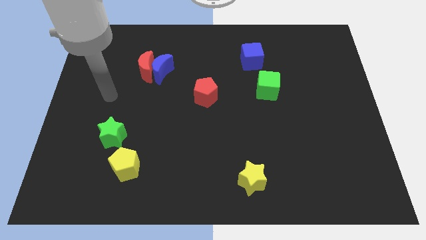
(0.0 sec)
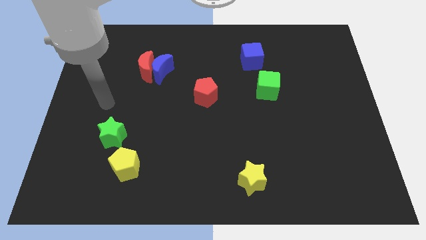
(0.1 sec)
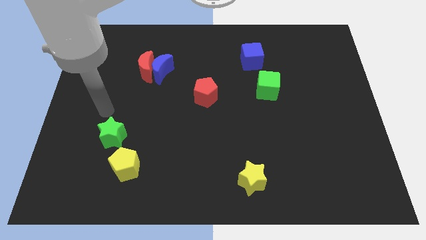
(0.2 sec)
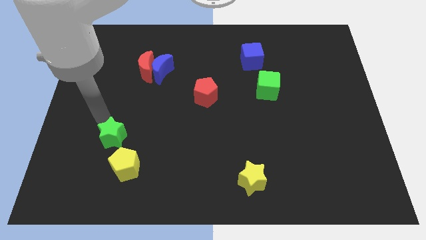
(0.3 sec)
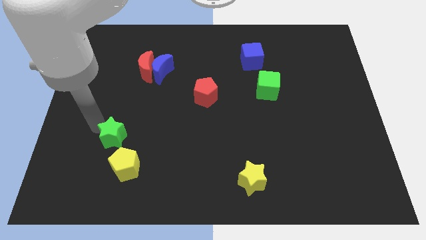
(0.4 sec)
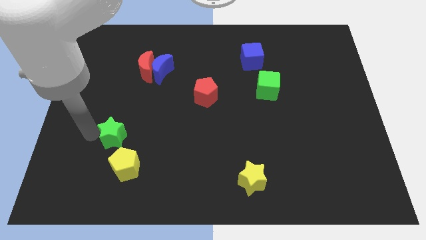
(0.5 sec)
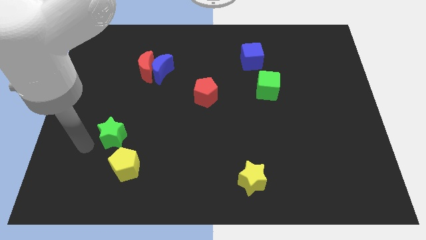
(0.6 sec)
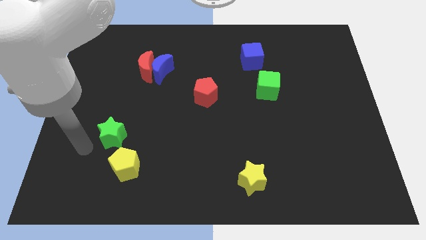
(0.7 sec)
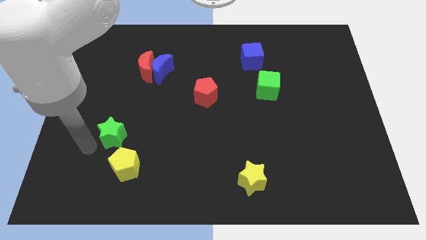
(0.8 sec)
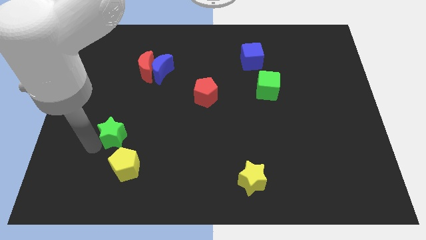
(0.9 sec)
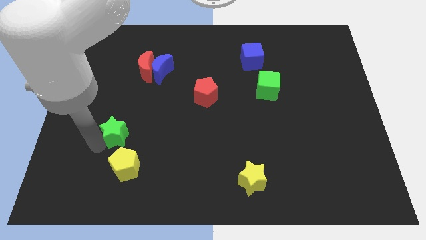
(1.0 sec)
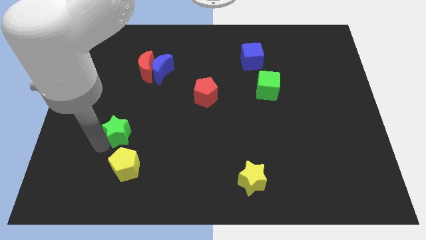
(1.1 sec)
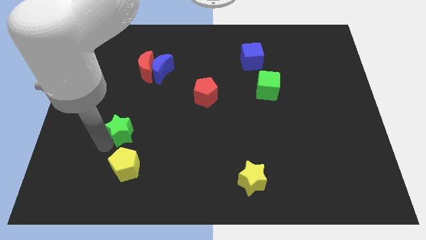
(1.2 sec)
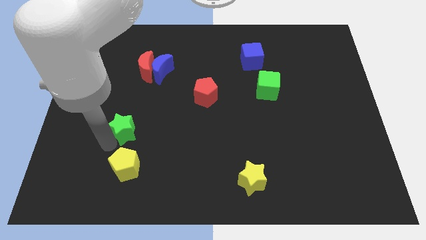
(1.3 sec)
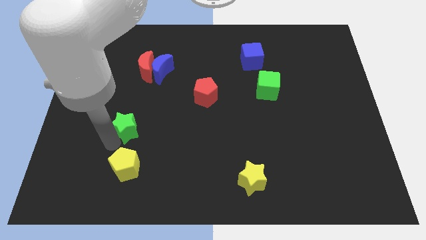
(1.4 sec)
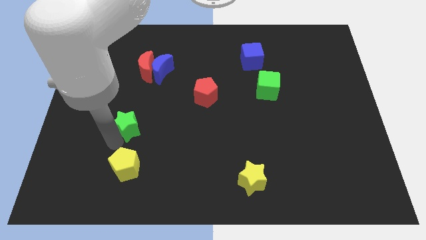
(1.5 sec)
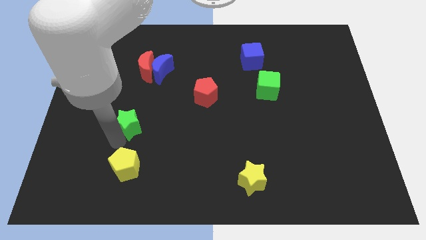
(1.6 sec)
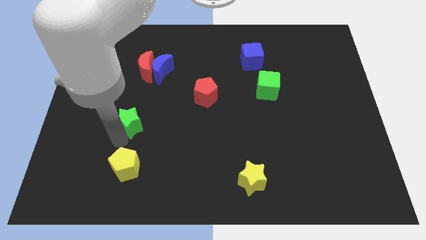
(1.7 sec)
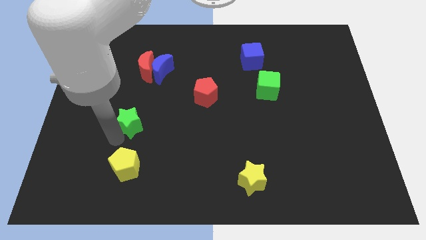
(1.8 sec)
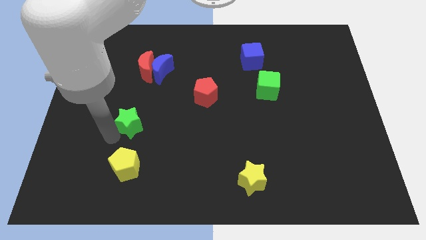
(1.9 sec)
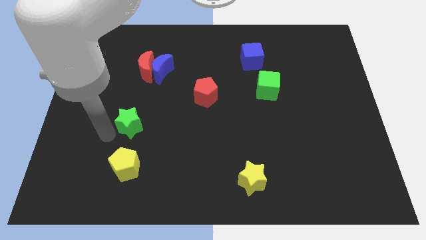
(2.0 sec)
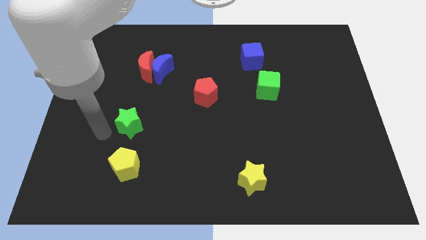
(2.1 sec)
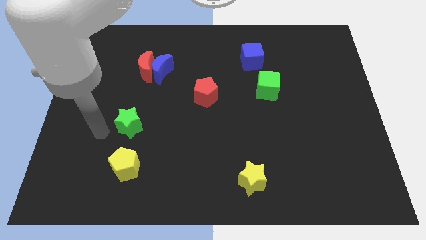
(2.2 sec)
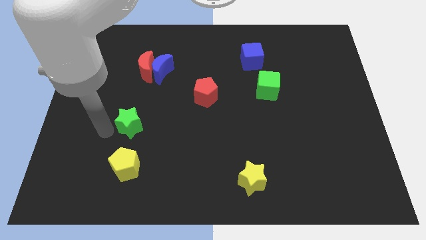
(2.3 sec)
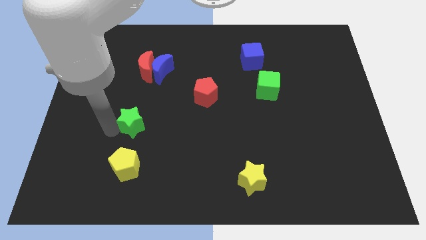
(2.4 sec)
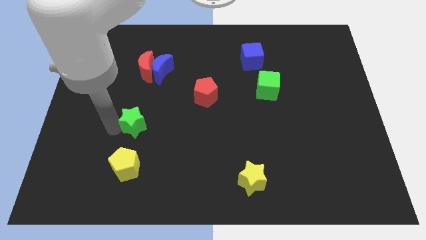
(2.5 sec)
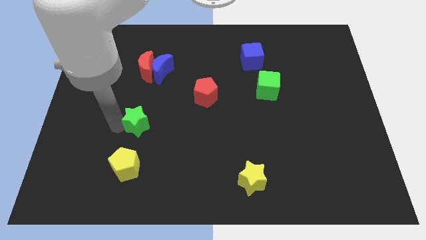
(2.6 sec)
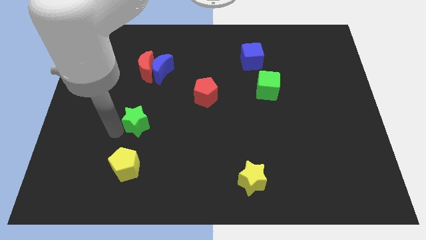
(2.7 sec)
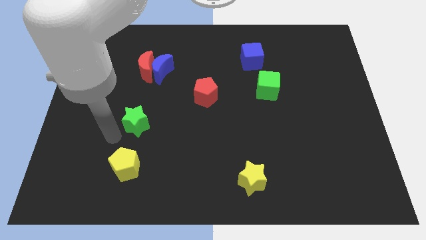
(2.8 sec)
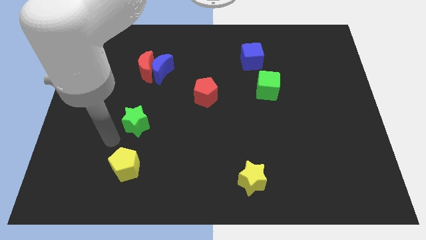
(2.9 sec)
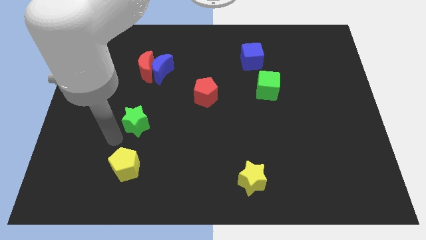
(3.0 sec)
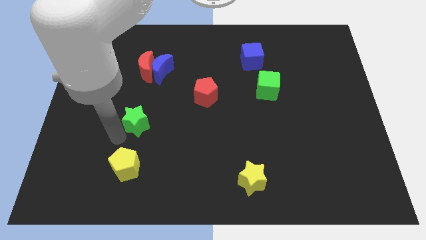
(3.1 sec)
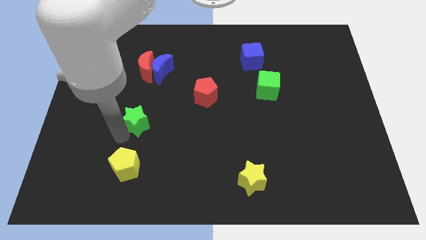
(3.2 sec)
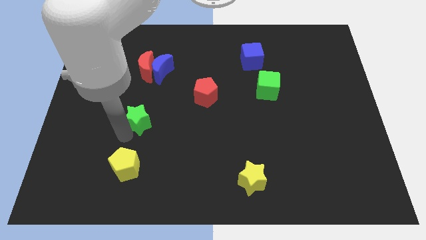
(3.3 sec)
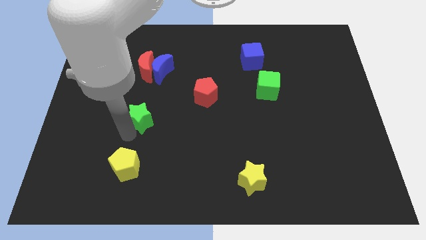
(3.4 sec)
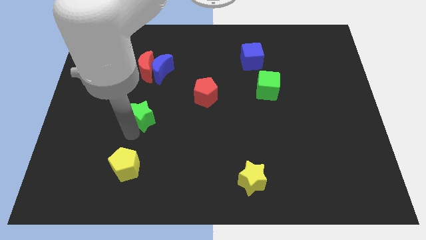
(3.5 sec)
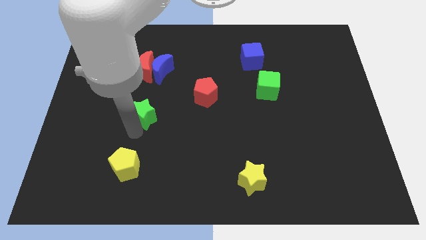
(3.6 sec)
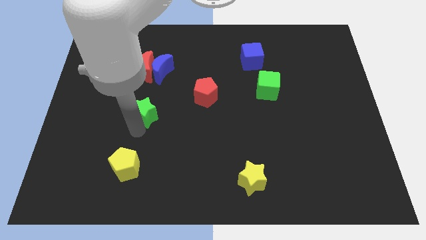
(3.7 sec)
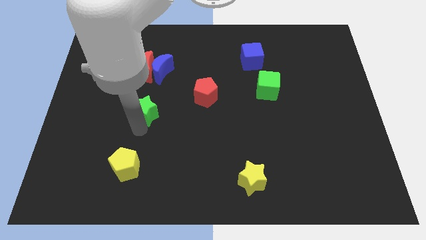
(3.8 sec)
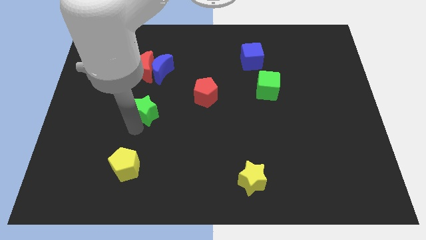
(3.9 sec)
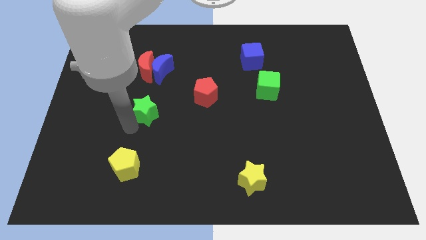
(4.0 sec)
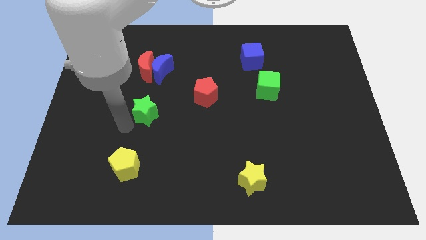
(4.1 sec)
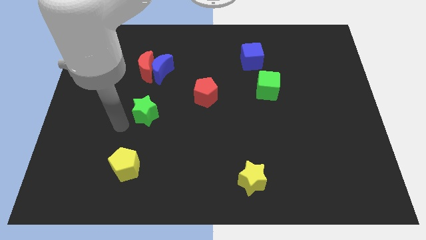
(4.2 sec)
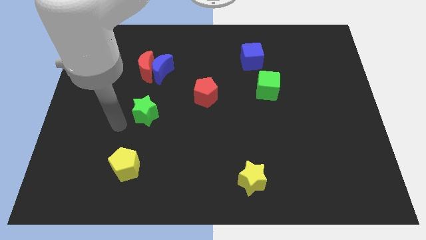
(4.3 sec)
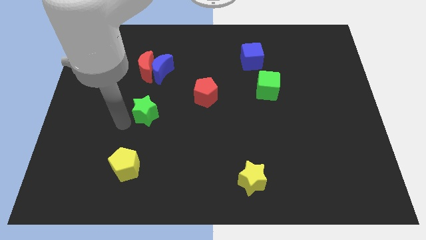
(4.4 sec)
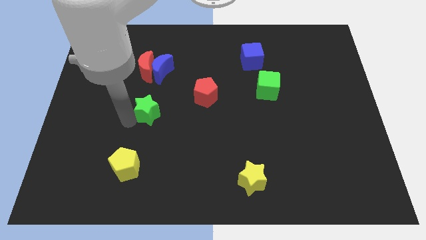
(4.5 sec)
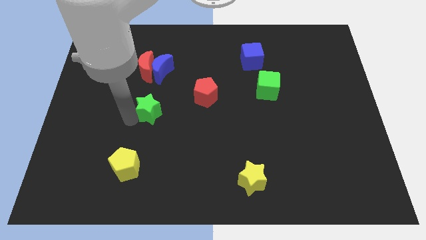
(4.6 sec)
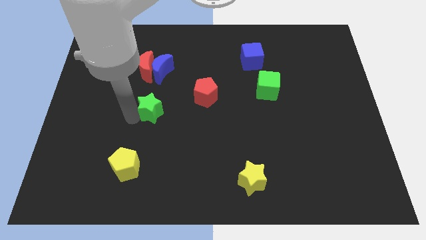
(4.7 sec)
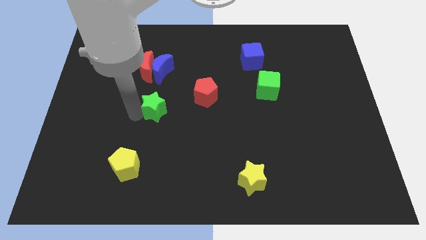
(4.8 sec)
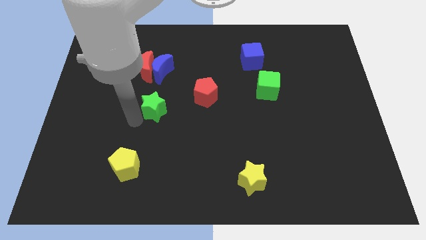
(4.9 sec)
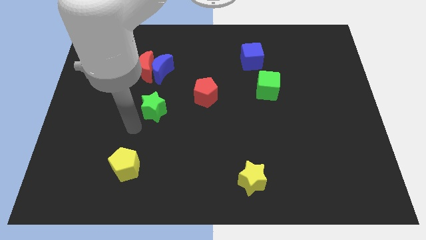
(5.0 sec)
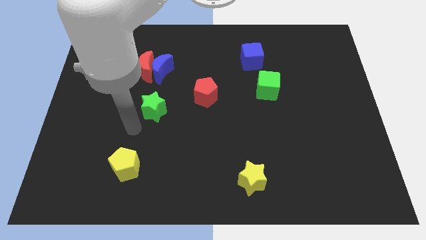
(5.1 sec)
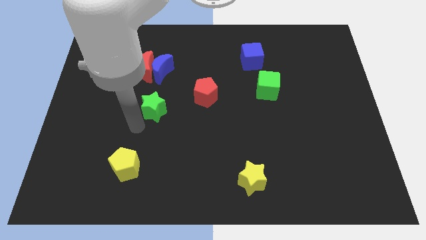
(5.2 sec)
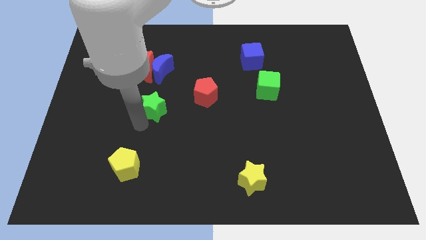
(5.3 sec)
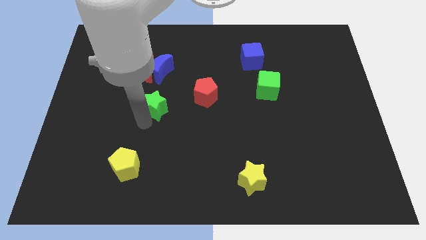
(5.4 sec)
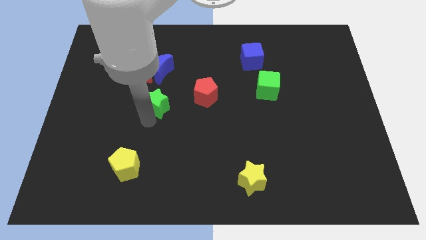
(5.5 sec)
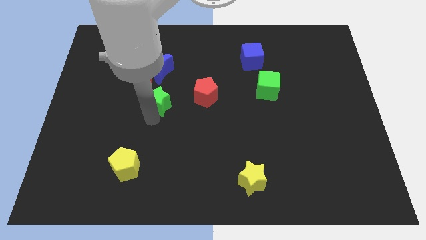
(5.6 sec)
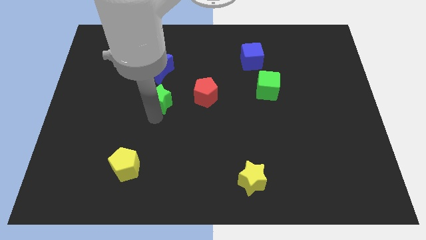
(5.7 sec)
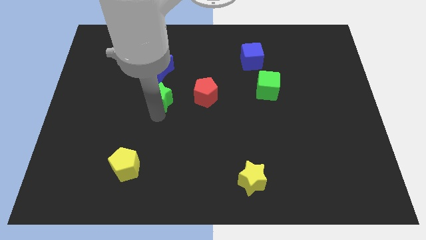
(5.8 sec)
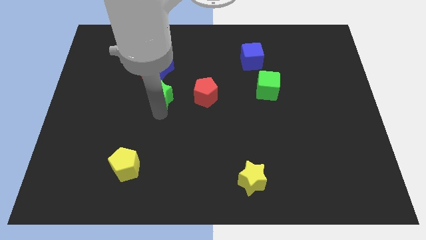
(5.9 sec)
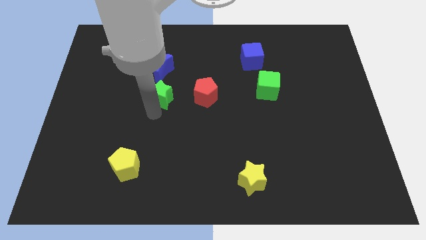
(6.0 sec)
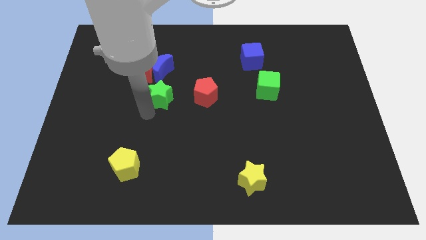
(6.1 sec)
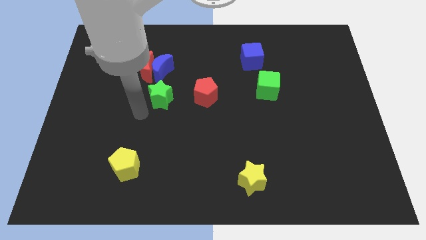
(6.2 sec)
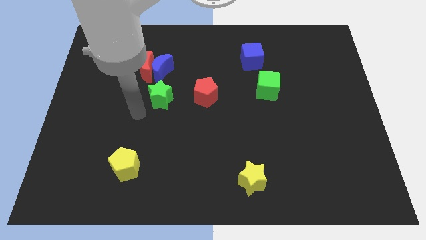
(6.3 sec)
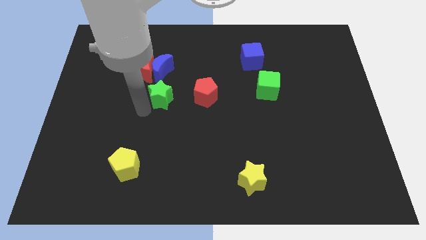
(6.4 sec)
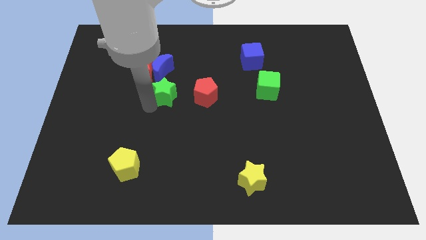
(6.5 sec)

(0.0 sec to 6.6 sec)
push the green star to the bottom right side of the blue moon
